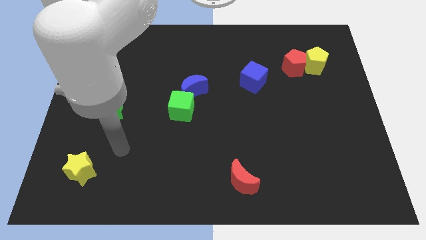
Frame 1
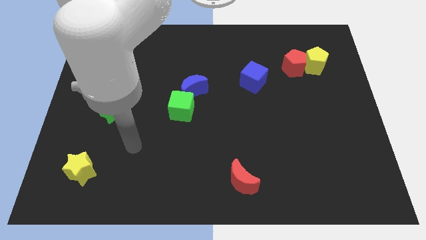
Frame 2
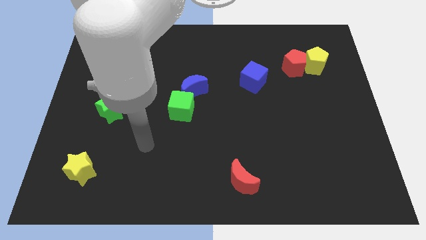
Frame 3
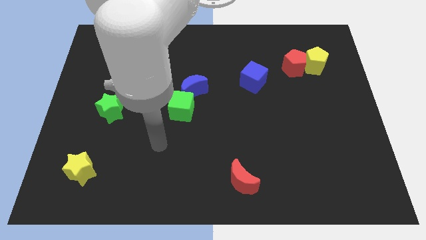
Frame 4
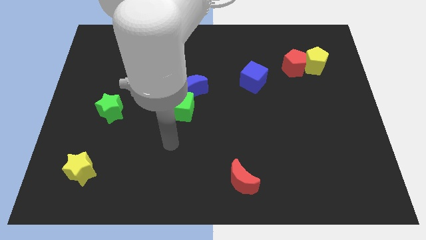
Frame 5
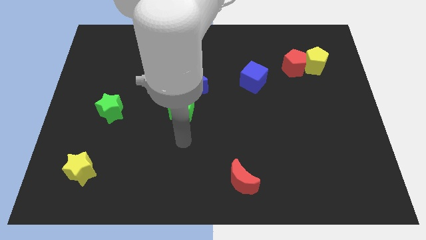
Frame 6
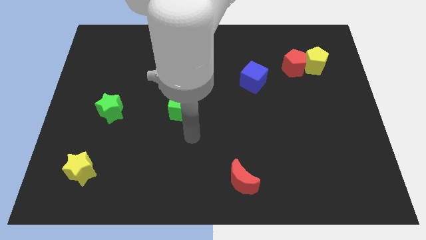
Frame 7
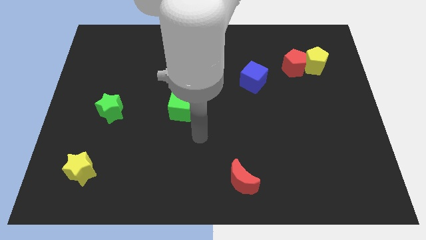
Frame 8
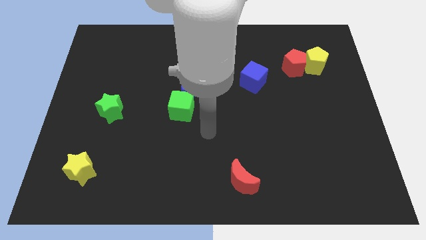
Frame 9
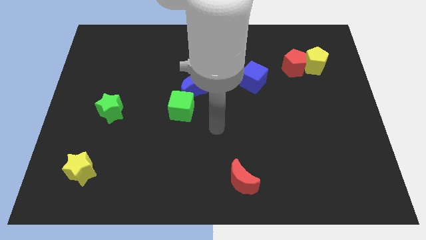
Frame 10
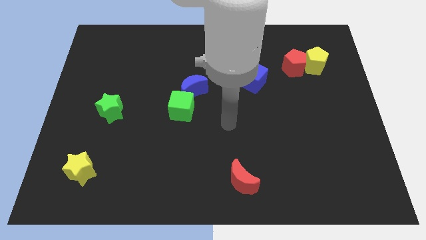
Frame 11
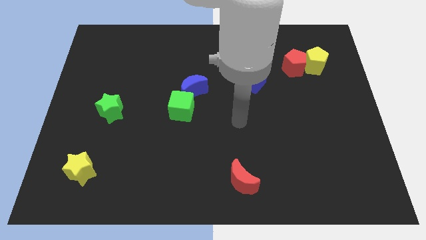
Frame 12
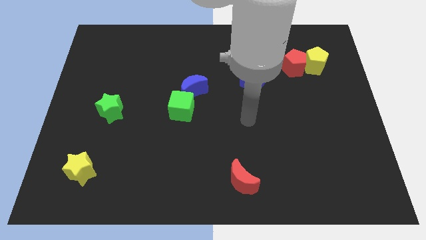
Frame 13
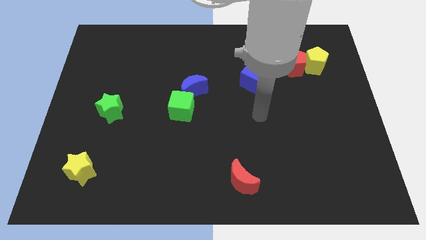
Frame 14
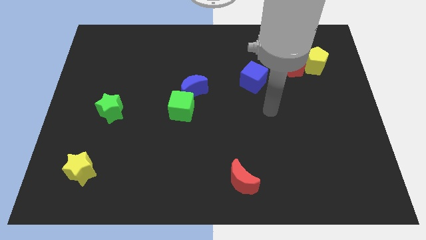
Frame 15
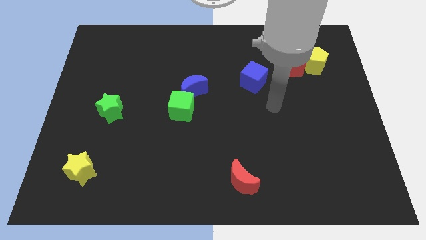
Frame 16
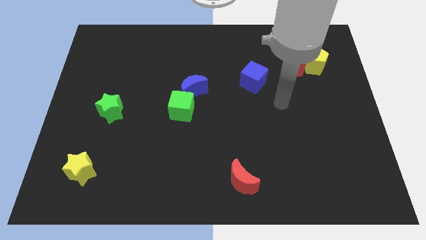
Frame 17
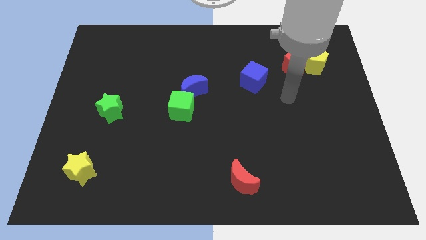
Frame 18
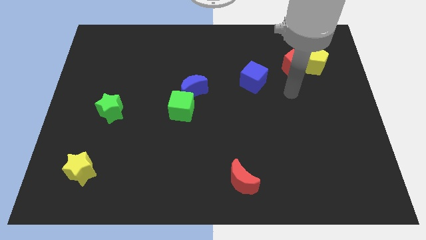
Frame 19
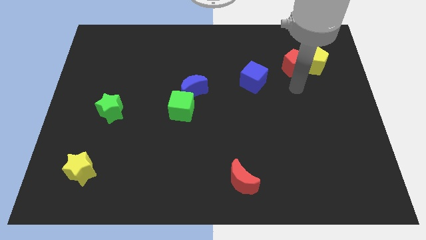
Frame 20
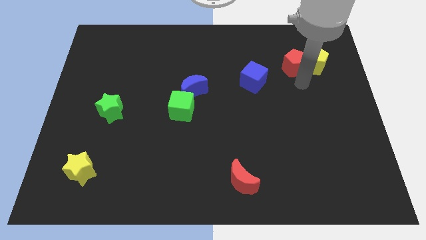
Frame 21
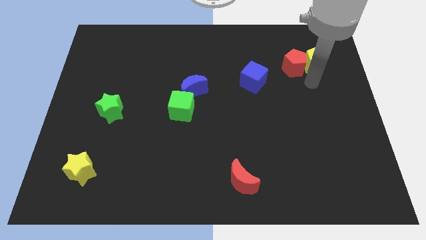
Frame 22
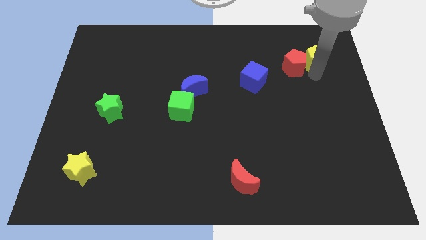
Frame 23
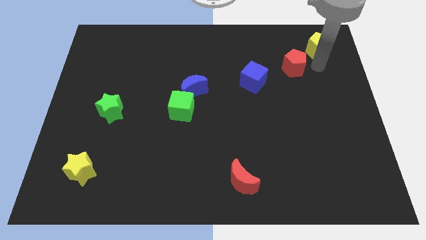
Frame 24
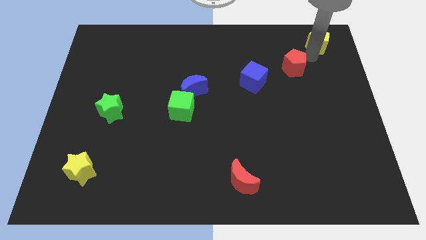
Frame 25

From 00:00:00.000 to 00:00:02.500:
separate the red pentagon from the yellow pentagon

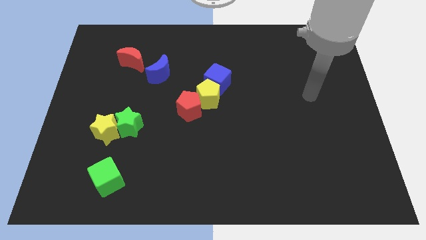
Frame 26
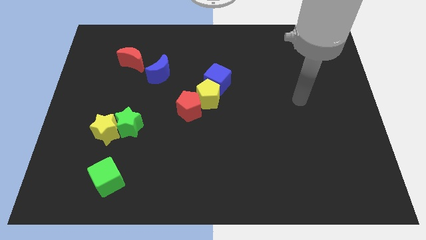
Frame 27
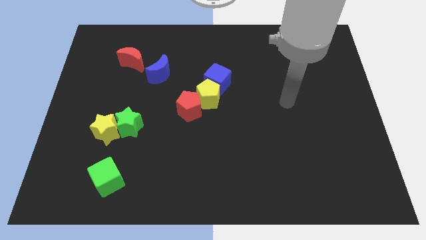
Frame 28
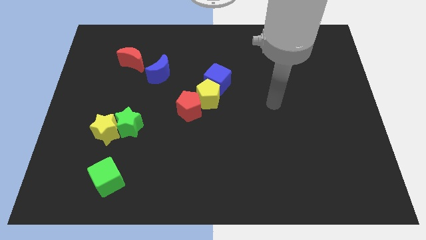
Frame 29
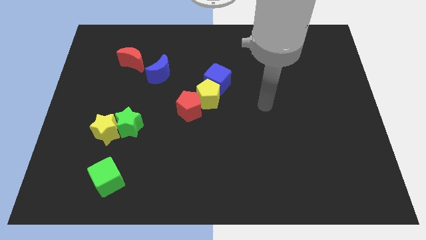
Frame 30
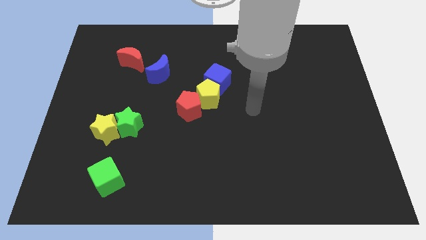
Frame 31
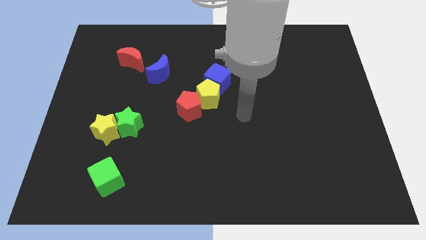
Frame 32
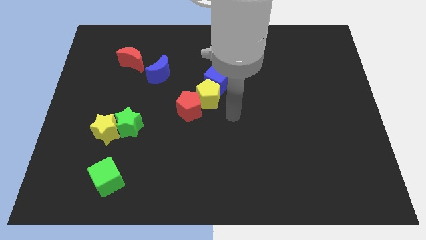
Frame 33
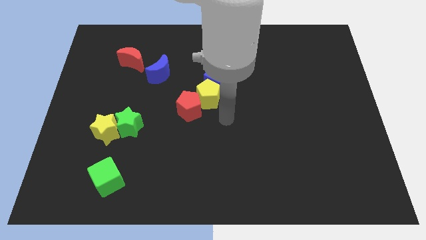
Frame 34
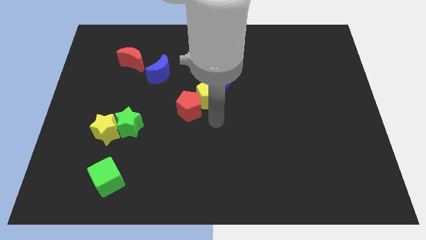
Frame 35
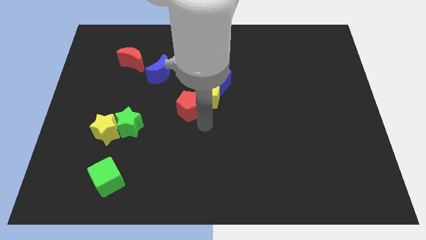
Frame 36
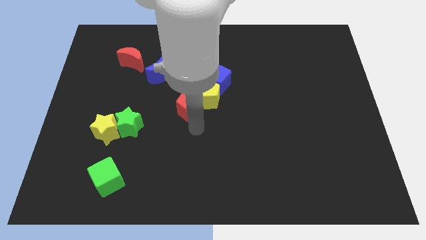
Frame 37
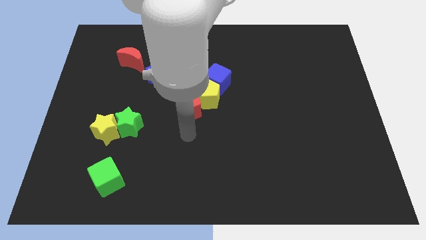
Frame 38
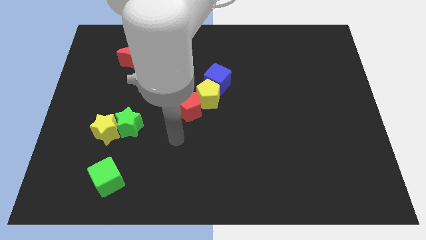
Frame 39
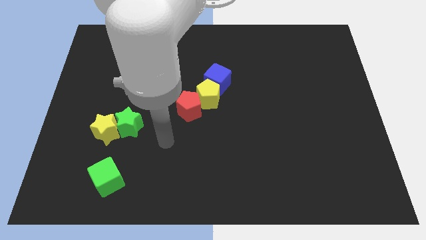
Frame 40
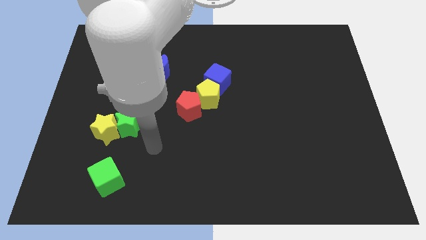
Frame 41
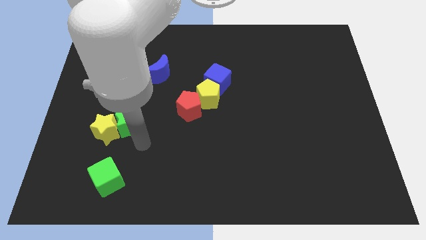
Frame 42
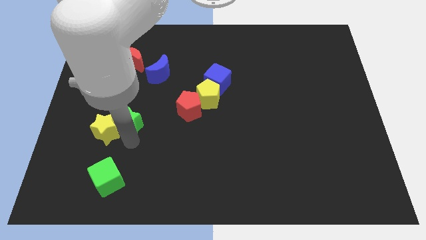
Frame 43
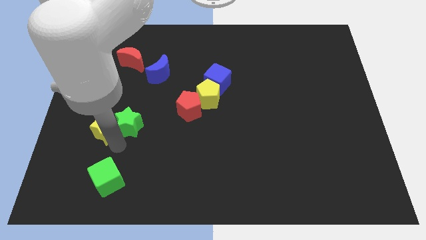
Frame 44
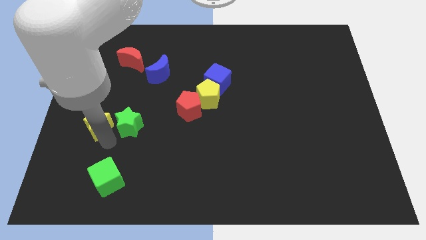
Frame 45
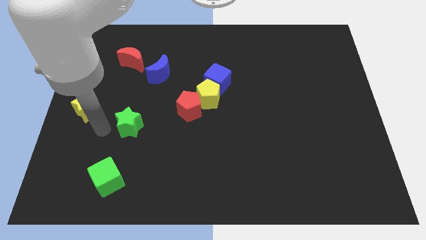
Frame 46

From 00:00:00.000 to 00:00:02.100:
separate the green star from the yellow star

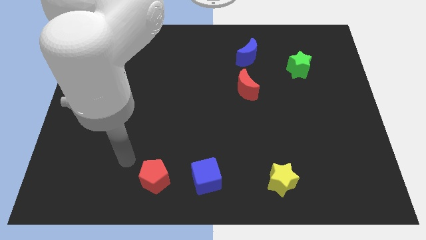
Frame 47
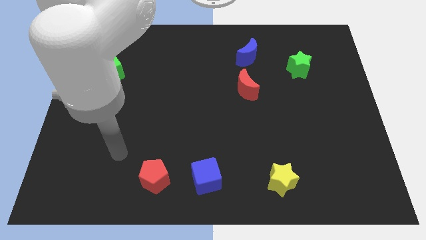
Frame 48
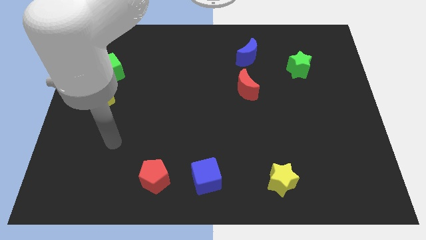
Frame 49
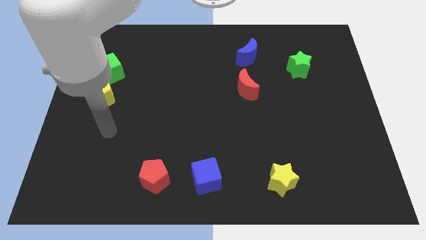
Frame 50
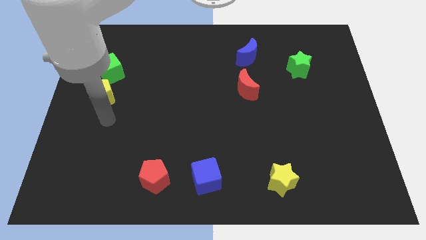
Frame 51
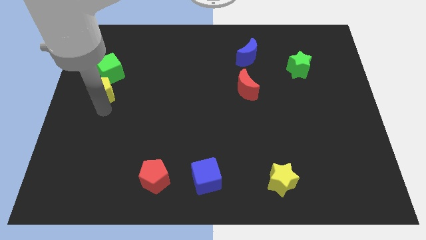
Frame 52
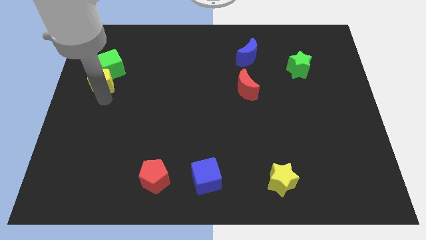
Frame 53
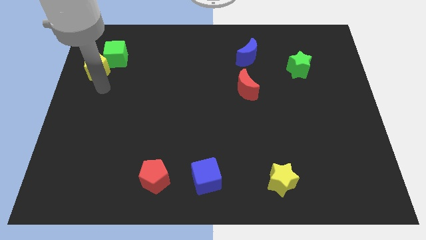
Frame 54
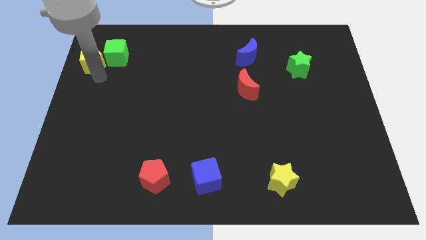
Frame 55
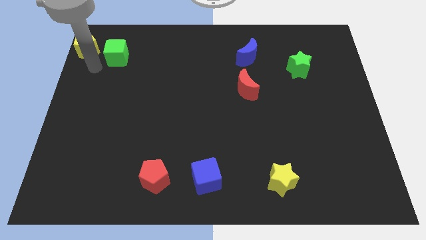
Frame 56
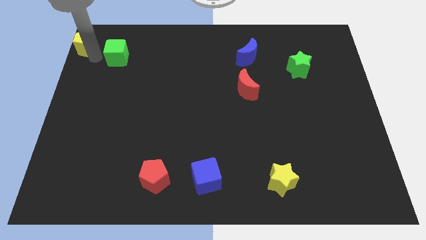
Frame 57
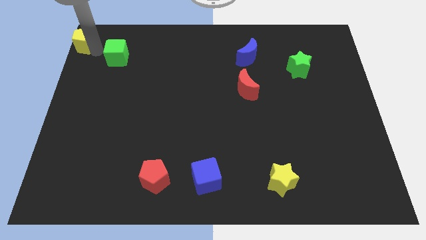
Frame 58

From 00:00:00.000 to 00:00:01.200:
pull the green cube apart from the yellow pentagon

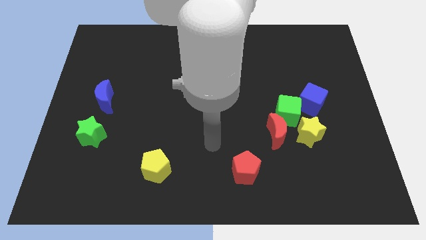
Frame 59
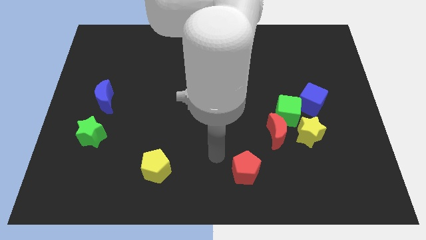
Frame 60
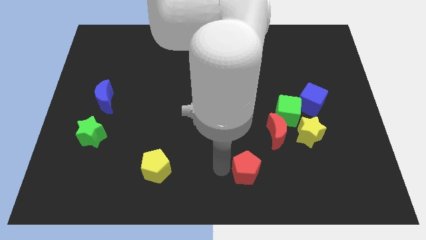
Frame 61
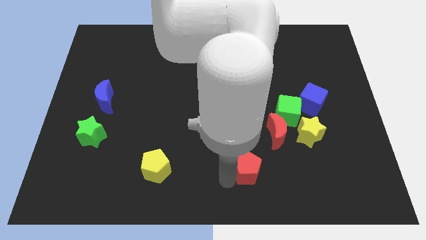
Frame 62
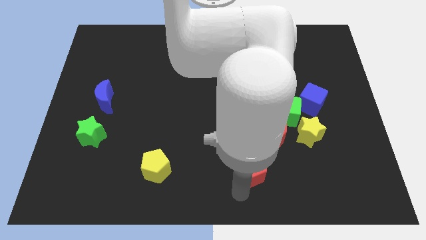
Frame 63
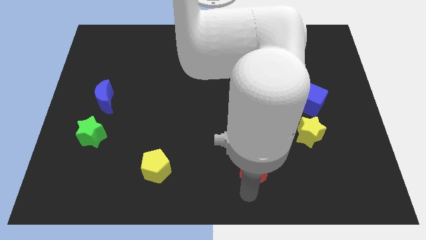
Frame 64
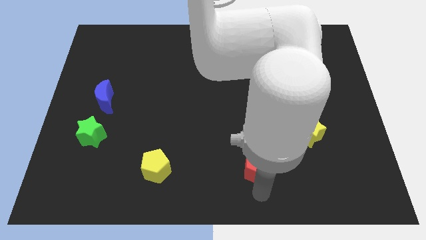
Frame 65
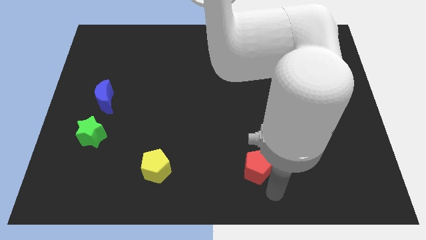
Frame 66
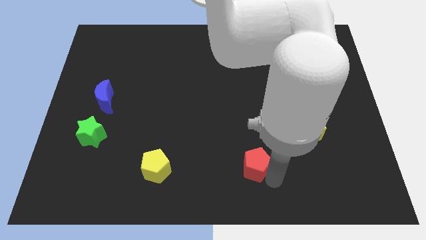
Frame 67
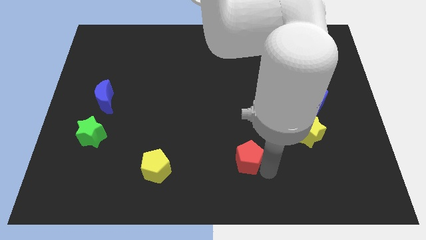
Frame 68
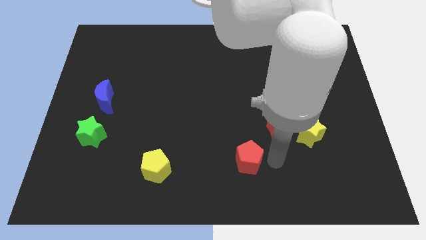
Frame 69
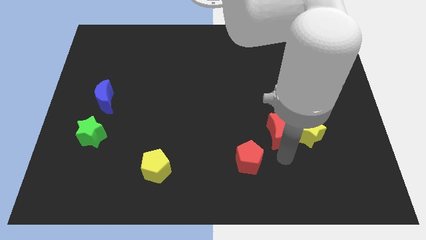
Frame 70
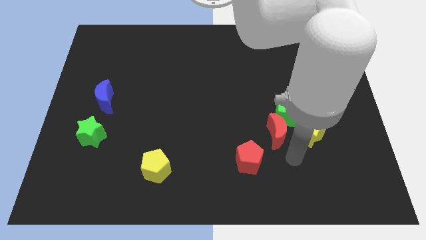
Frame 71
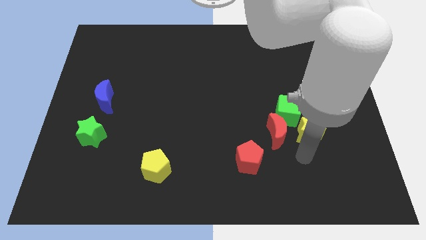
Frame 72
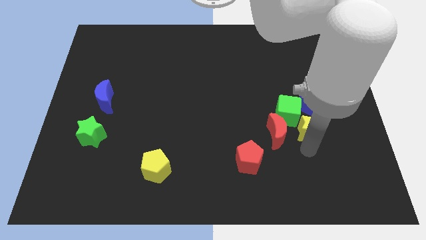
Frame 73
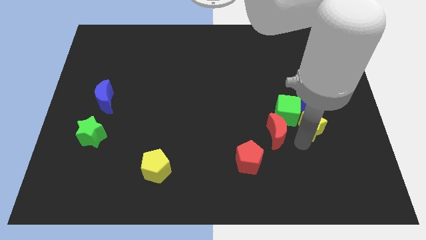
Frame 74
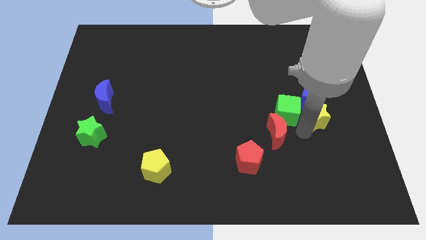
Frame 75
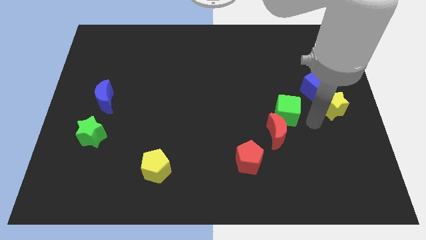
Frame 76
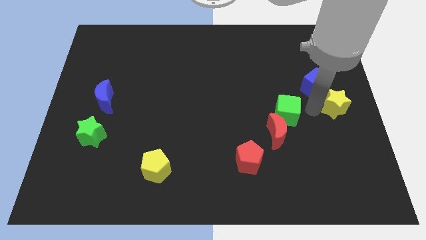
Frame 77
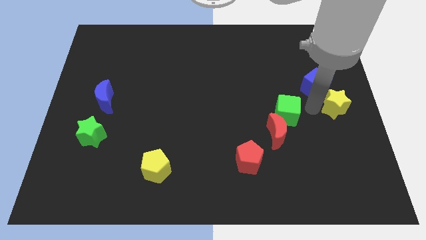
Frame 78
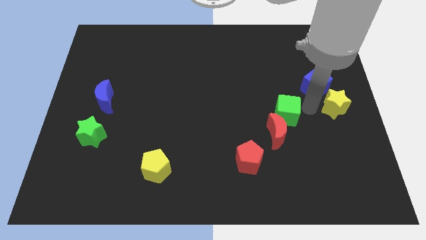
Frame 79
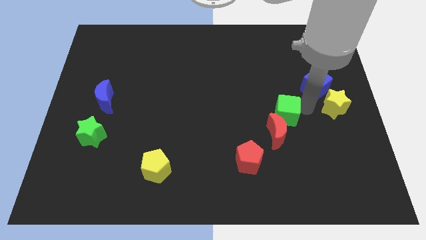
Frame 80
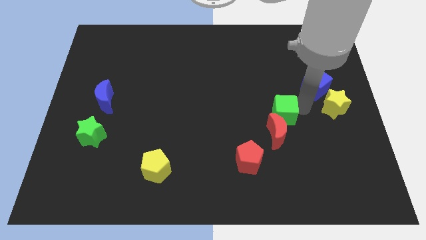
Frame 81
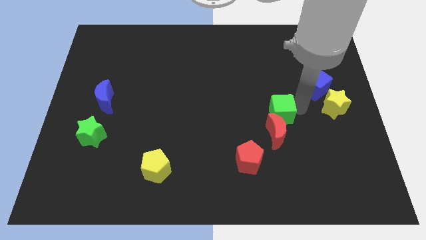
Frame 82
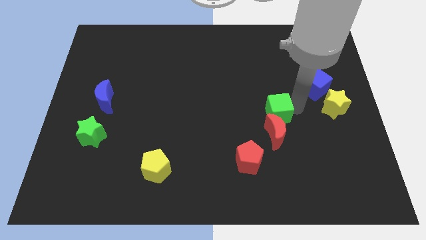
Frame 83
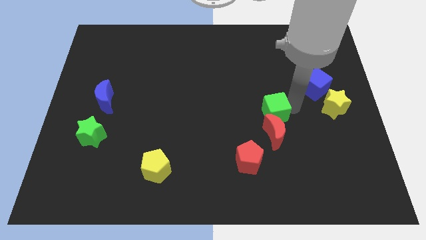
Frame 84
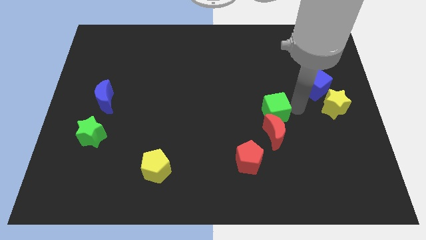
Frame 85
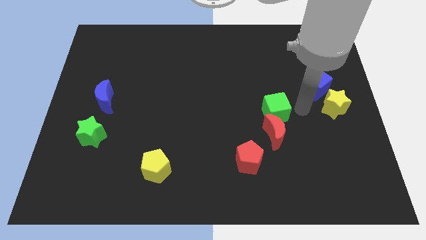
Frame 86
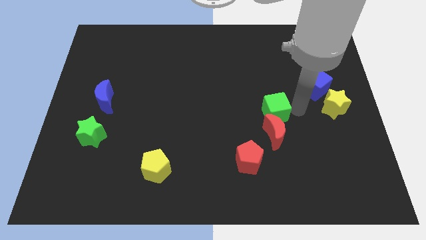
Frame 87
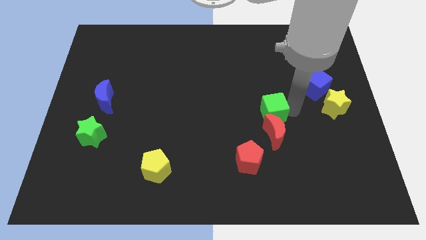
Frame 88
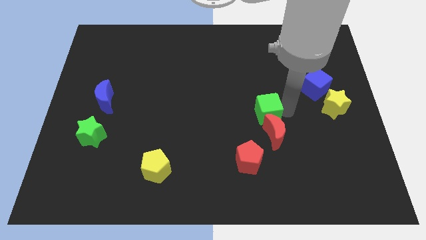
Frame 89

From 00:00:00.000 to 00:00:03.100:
pull the green cube apart from the group of blocks

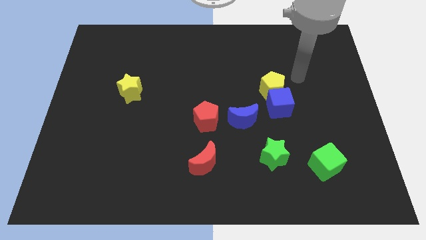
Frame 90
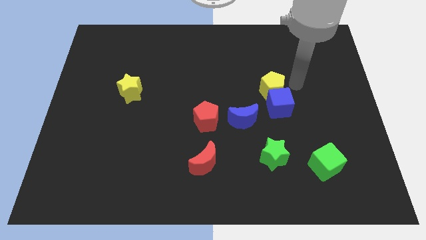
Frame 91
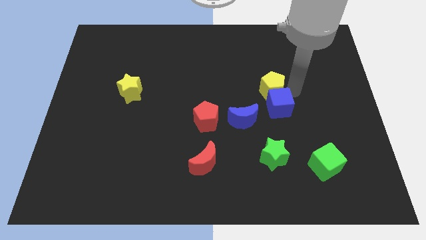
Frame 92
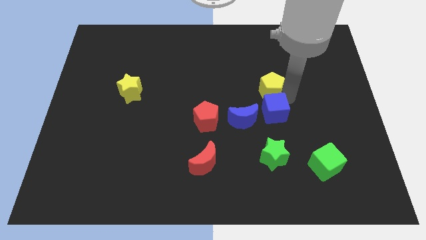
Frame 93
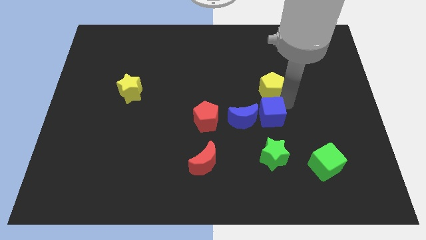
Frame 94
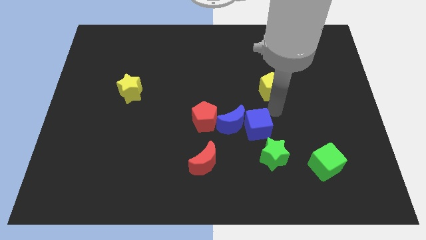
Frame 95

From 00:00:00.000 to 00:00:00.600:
move the yellow pentagon away from the blue cube
